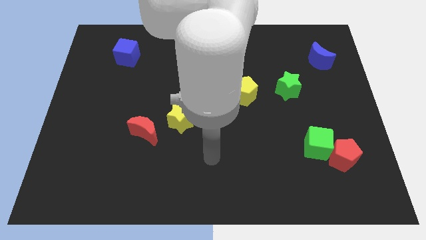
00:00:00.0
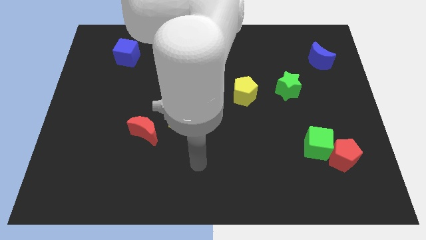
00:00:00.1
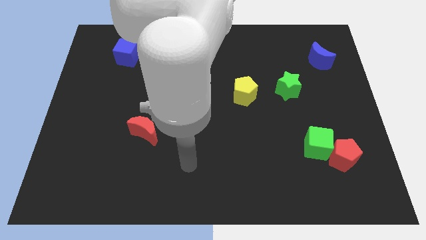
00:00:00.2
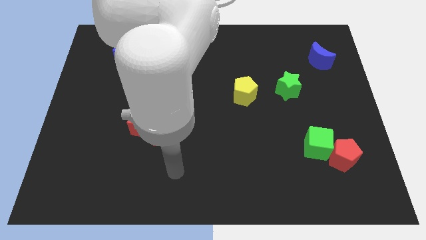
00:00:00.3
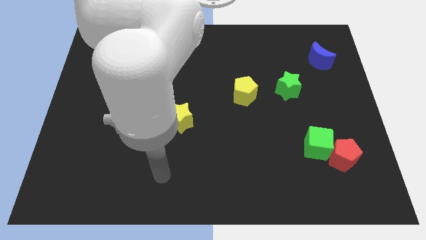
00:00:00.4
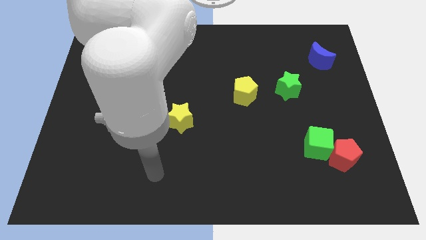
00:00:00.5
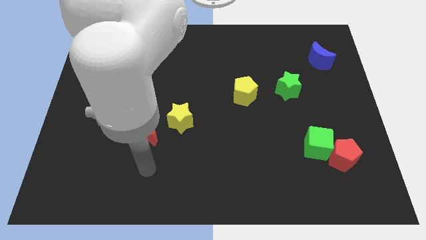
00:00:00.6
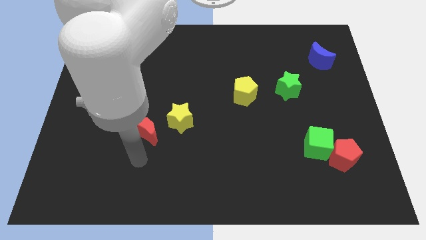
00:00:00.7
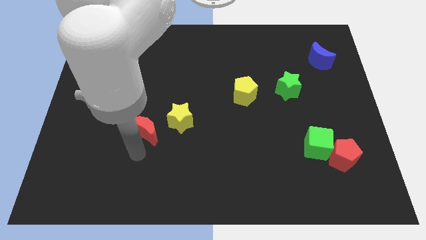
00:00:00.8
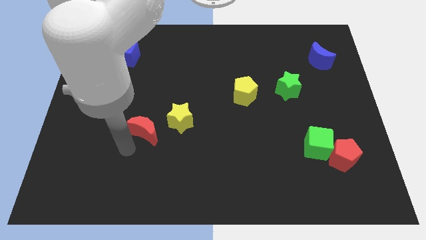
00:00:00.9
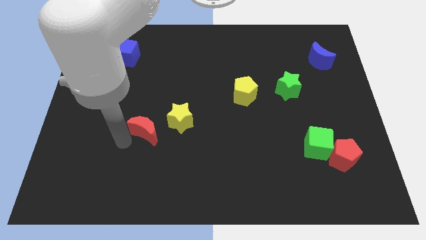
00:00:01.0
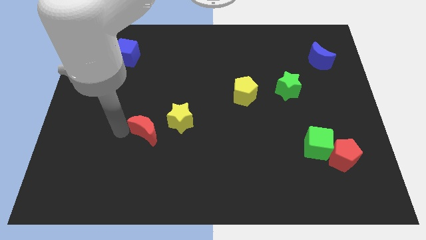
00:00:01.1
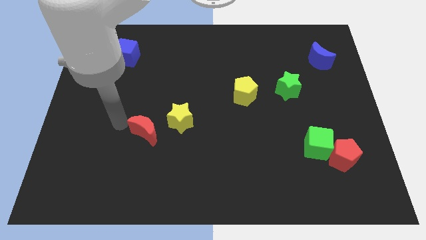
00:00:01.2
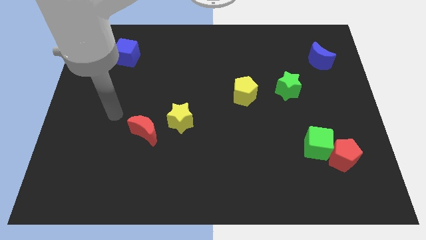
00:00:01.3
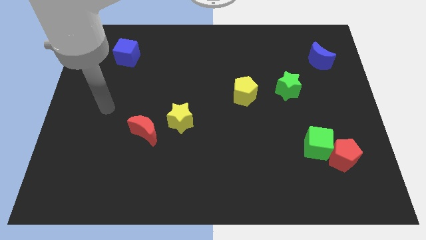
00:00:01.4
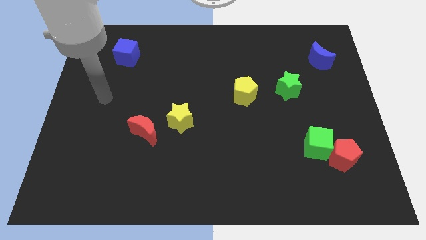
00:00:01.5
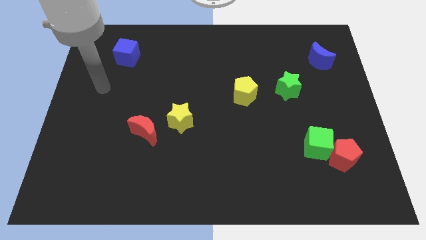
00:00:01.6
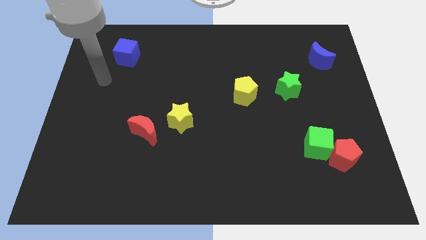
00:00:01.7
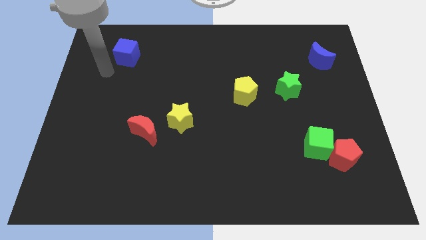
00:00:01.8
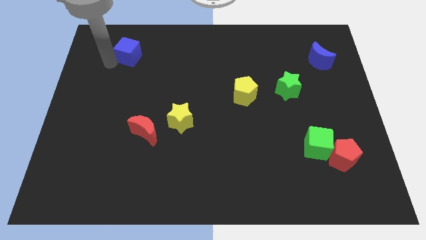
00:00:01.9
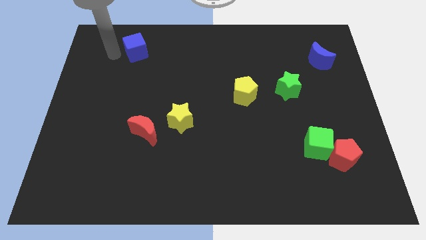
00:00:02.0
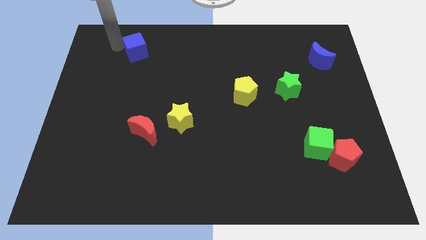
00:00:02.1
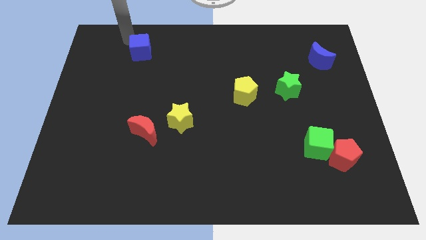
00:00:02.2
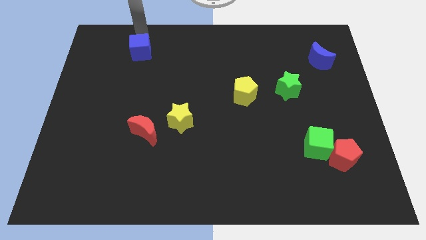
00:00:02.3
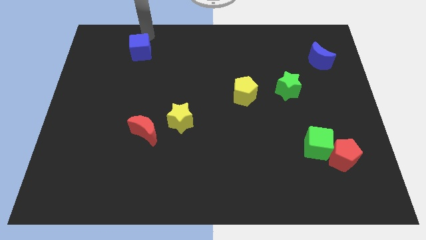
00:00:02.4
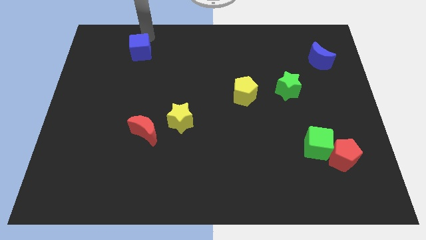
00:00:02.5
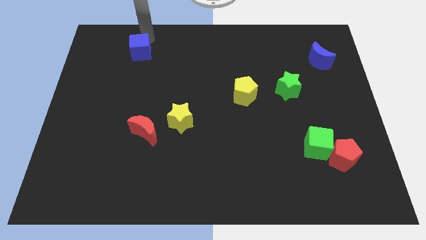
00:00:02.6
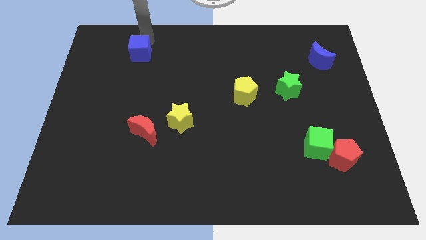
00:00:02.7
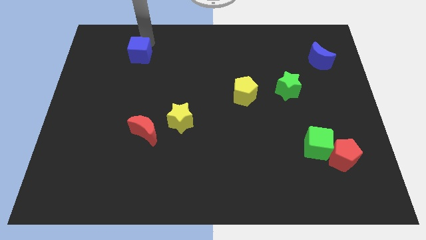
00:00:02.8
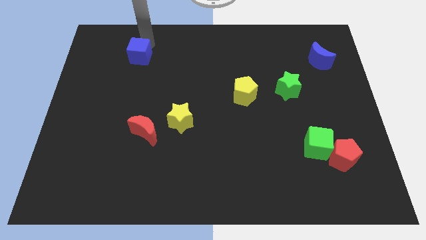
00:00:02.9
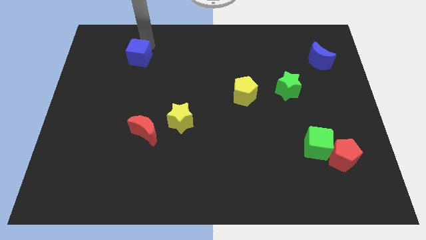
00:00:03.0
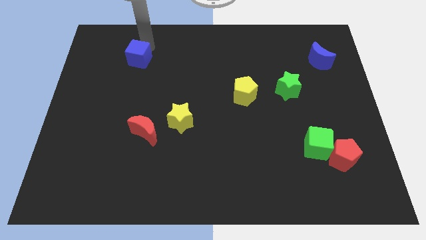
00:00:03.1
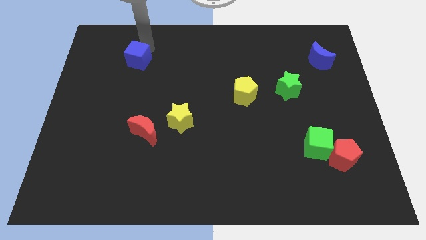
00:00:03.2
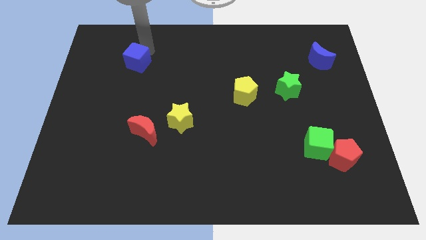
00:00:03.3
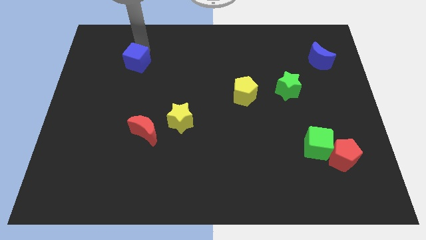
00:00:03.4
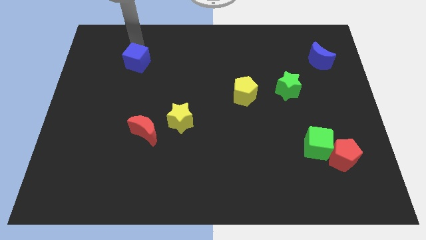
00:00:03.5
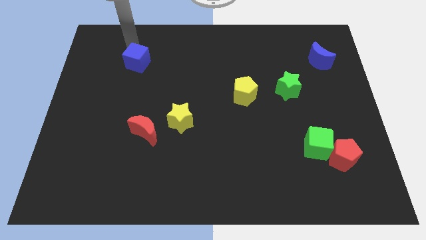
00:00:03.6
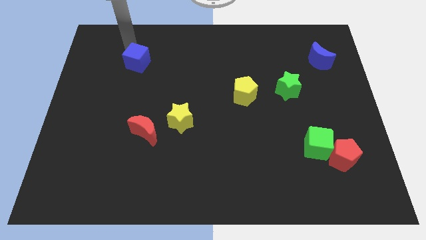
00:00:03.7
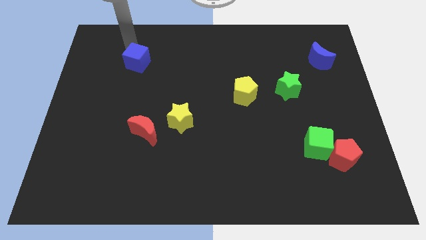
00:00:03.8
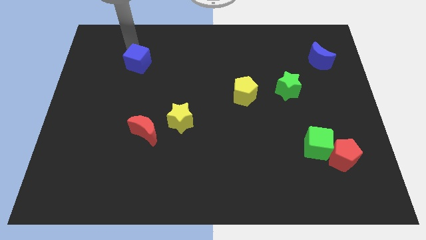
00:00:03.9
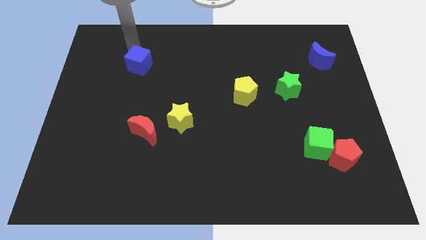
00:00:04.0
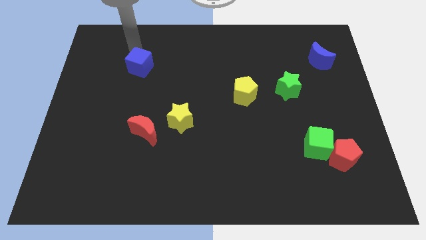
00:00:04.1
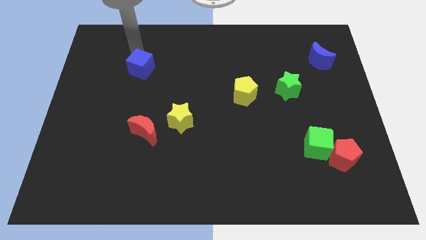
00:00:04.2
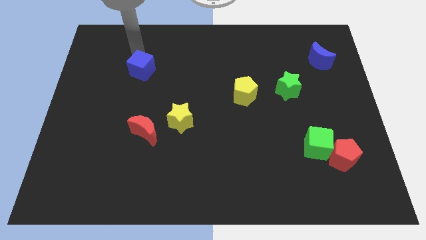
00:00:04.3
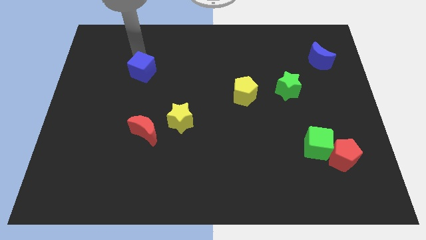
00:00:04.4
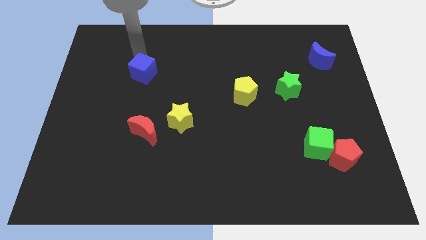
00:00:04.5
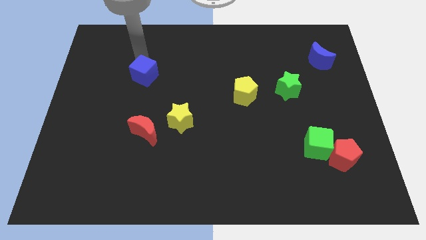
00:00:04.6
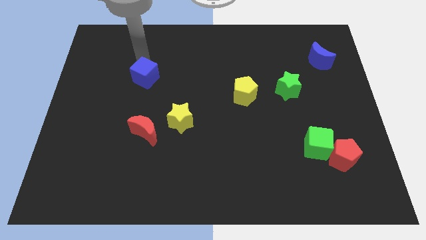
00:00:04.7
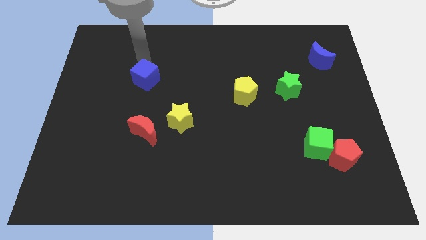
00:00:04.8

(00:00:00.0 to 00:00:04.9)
slide the blue cube to the top of the red moon

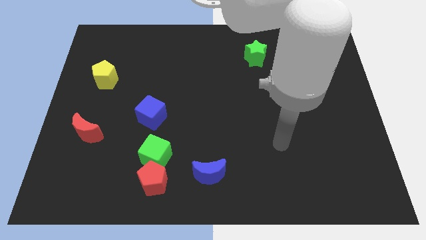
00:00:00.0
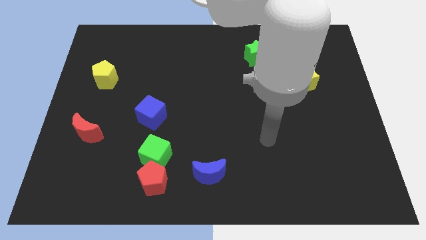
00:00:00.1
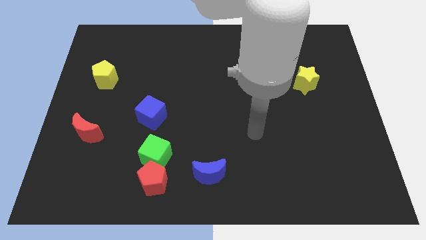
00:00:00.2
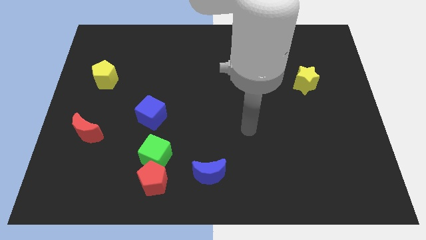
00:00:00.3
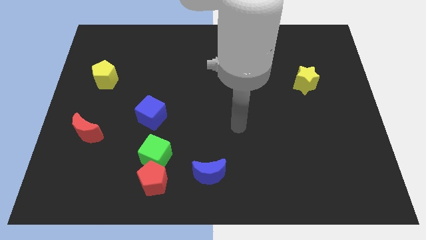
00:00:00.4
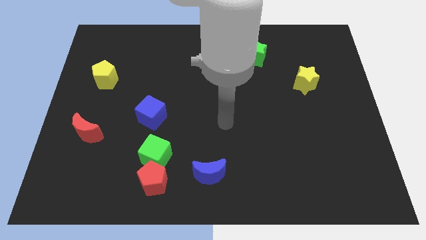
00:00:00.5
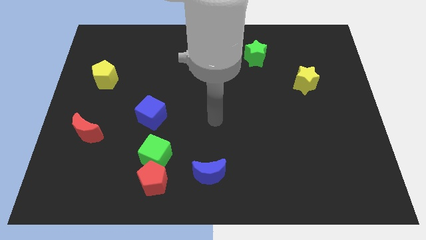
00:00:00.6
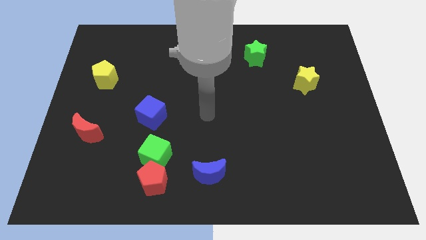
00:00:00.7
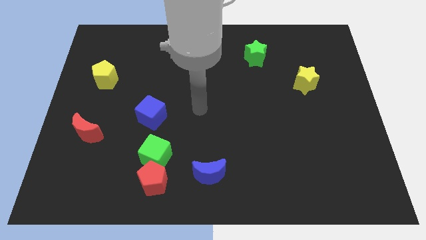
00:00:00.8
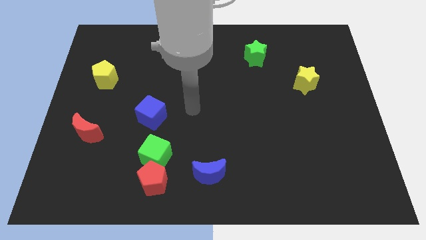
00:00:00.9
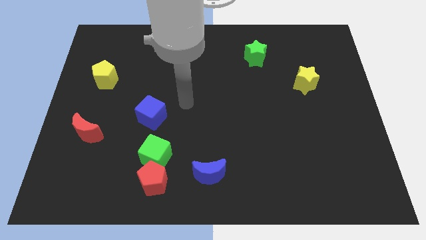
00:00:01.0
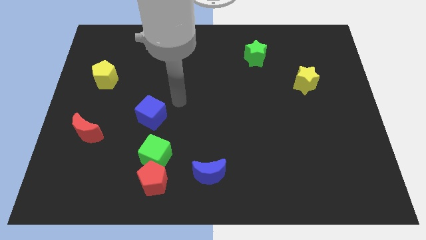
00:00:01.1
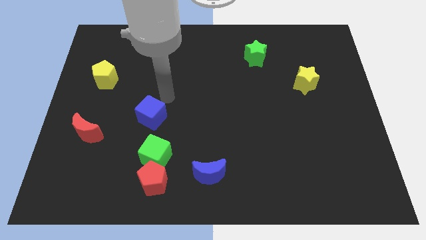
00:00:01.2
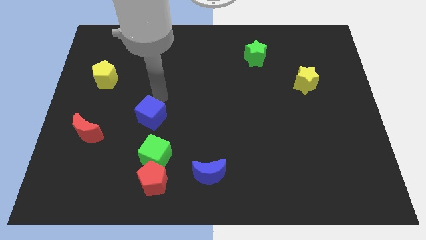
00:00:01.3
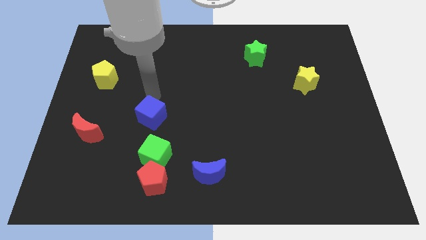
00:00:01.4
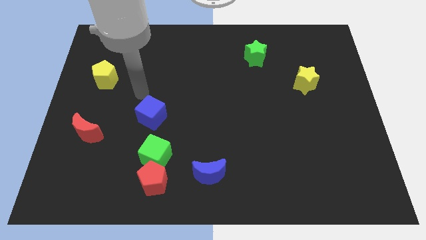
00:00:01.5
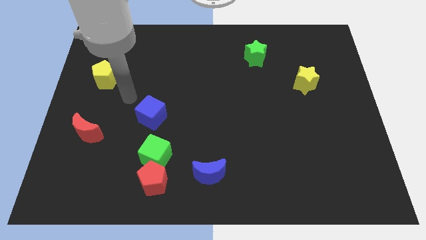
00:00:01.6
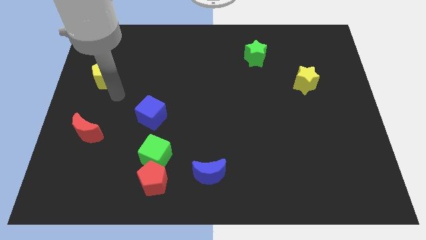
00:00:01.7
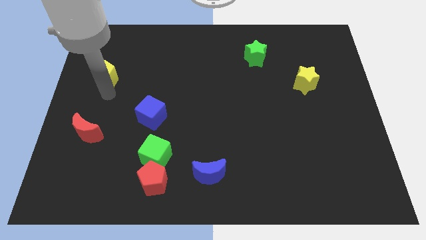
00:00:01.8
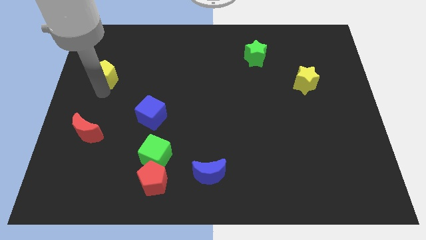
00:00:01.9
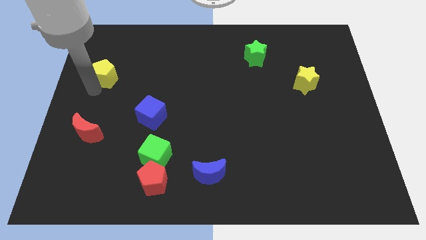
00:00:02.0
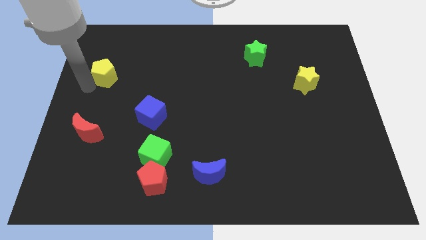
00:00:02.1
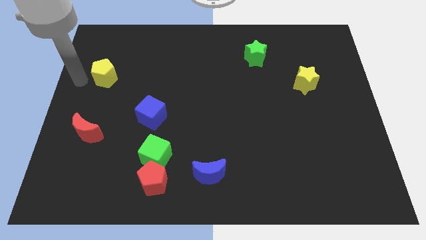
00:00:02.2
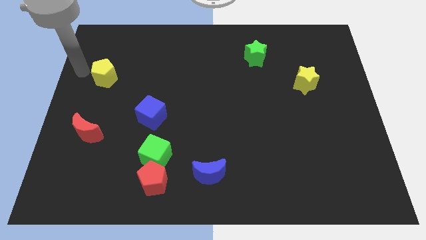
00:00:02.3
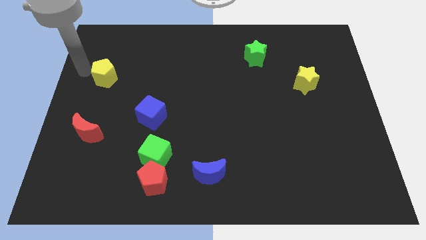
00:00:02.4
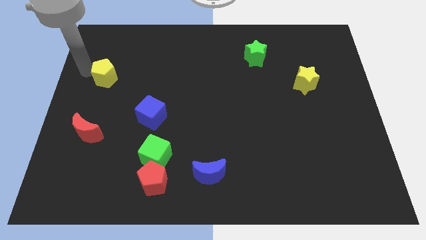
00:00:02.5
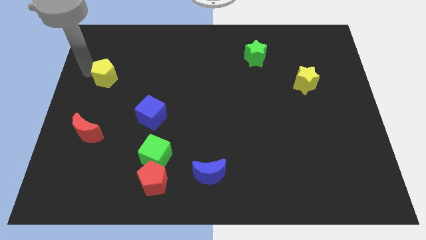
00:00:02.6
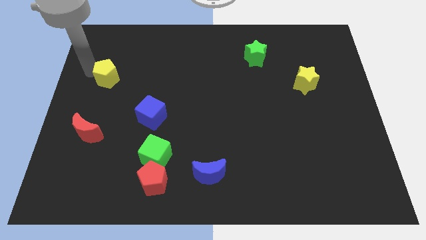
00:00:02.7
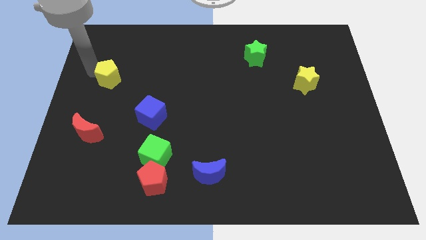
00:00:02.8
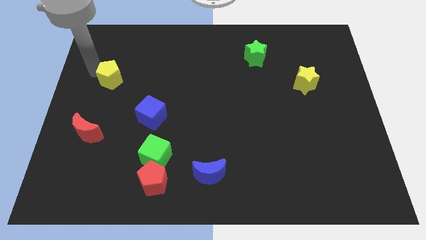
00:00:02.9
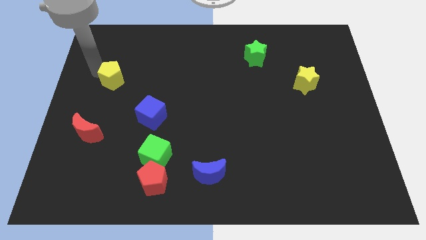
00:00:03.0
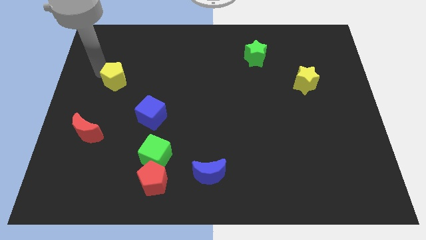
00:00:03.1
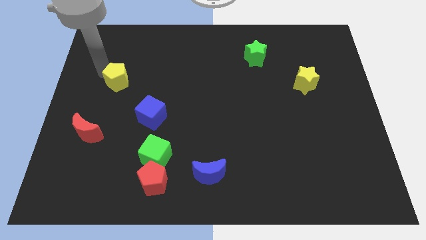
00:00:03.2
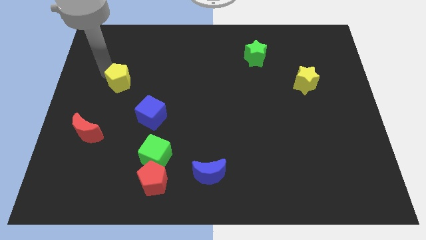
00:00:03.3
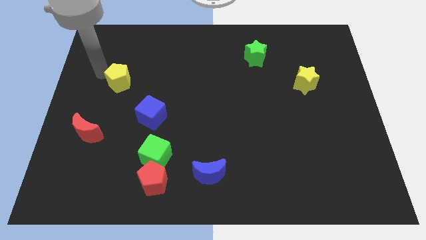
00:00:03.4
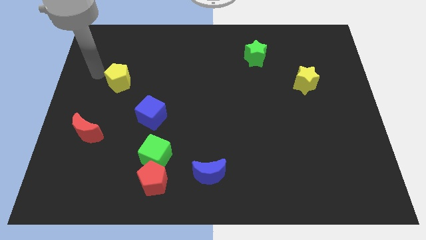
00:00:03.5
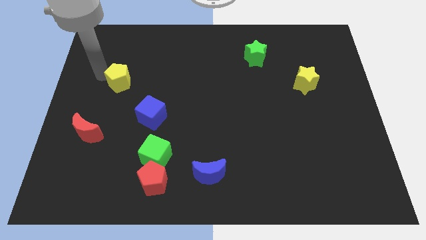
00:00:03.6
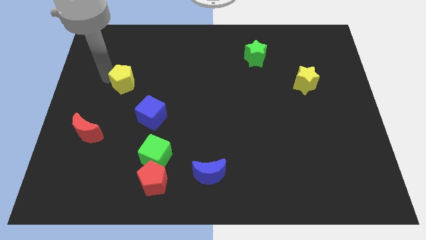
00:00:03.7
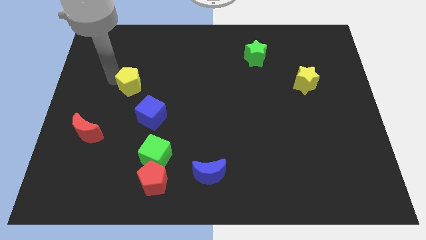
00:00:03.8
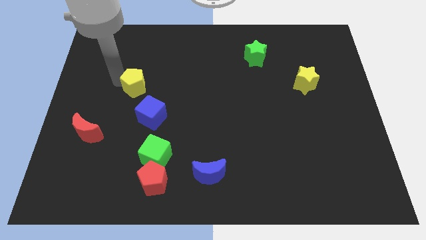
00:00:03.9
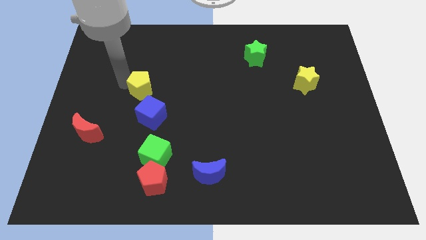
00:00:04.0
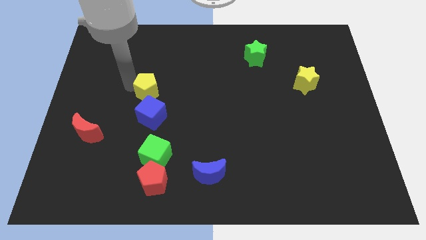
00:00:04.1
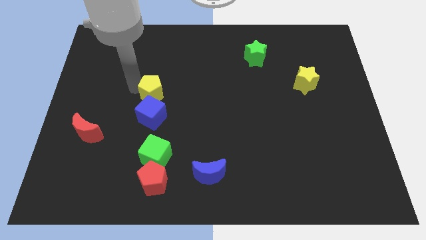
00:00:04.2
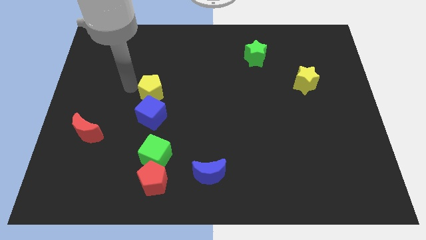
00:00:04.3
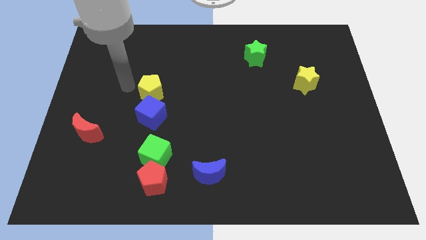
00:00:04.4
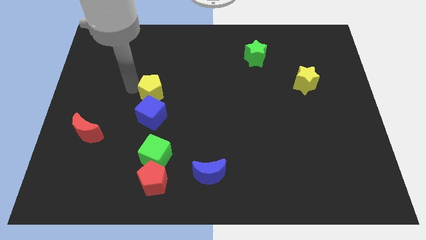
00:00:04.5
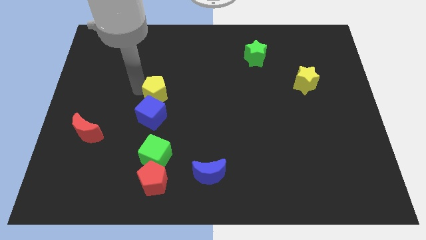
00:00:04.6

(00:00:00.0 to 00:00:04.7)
push the yellow pentagon diagonally up and to the right of the blue cube
